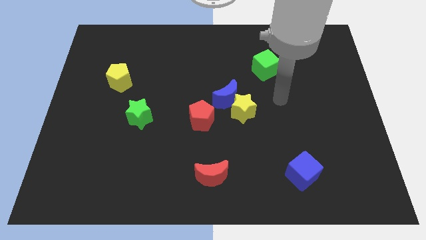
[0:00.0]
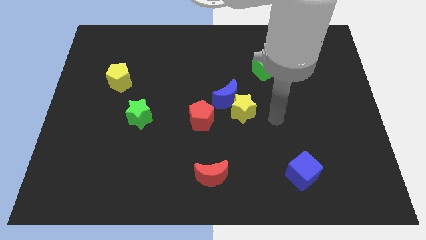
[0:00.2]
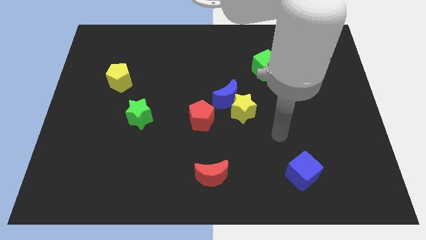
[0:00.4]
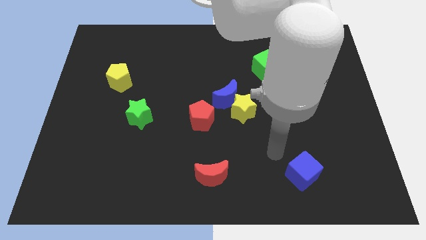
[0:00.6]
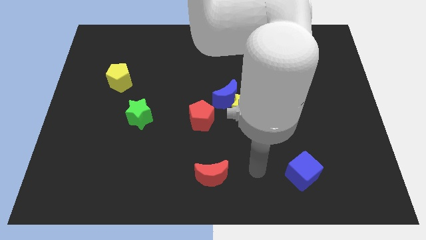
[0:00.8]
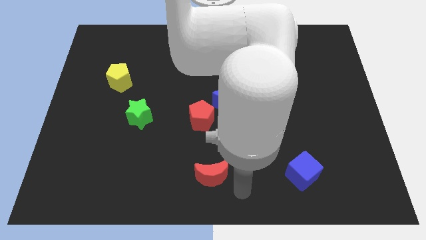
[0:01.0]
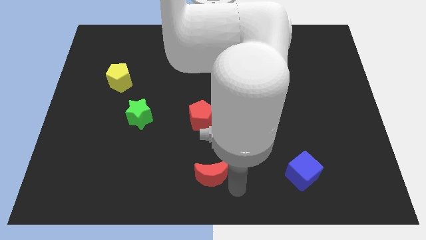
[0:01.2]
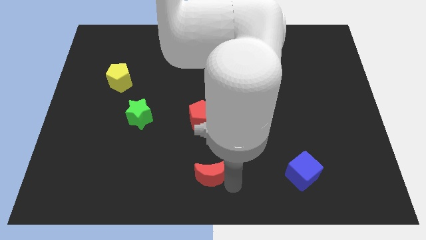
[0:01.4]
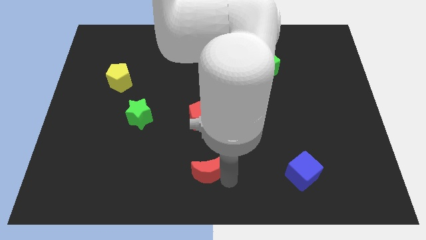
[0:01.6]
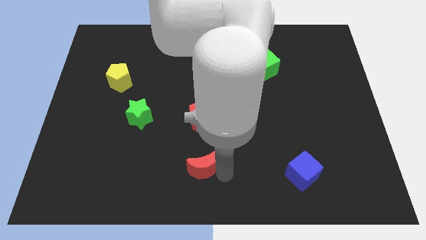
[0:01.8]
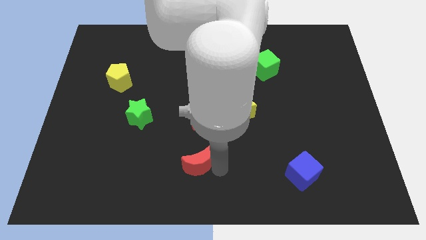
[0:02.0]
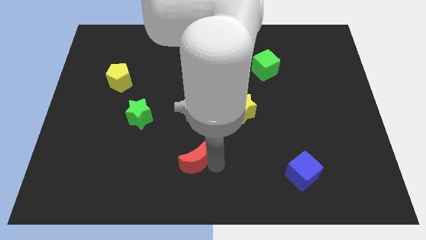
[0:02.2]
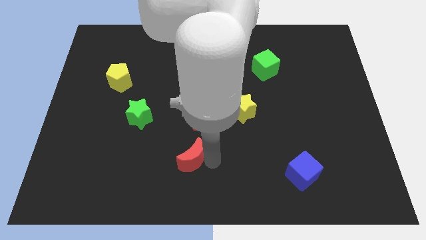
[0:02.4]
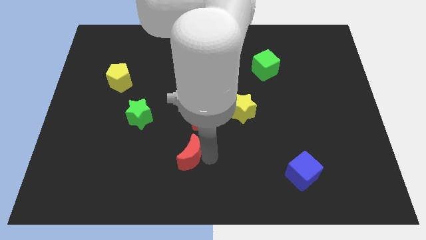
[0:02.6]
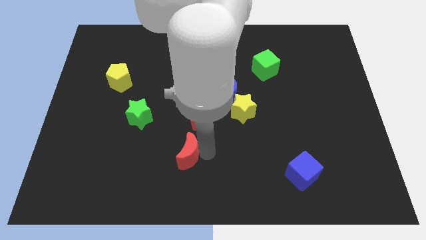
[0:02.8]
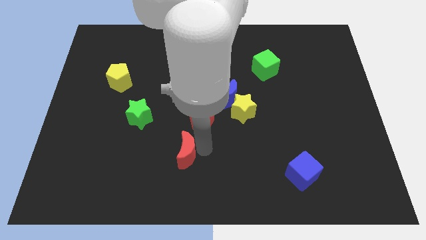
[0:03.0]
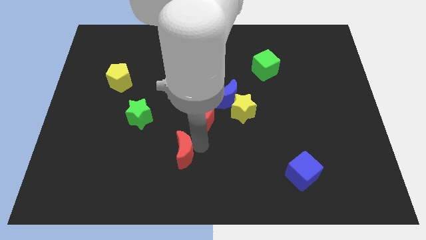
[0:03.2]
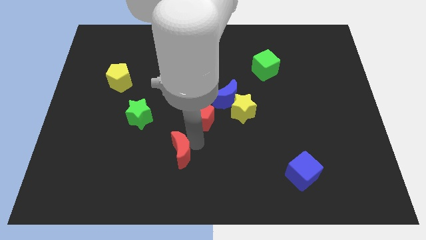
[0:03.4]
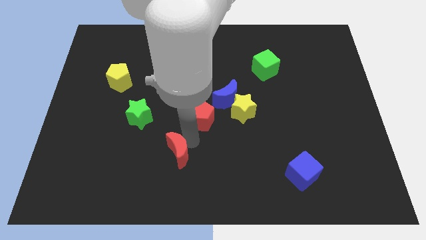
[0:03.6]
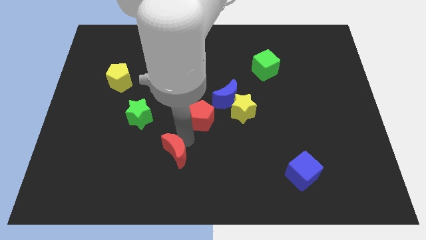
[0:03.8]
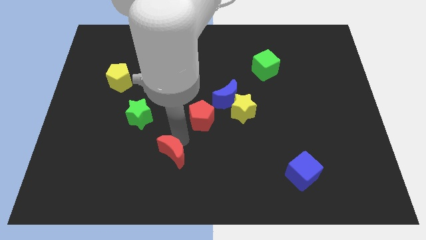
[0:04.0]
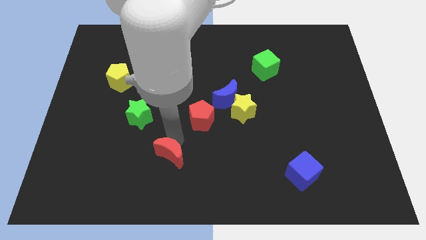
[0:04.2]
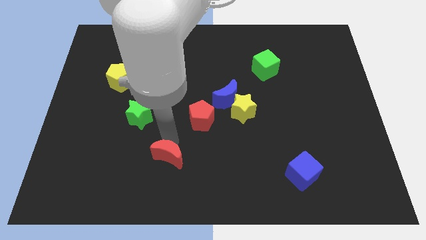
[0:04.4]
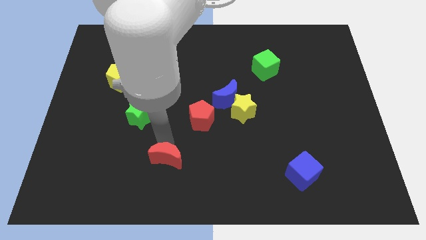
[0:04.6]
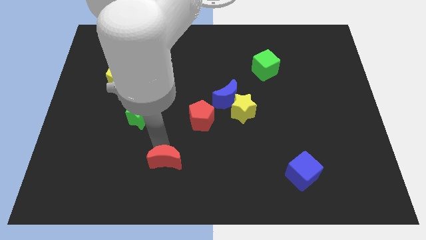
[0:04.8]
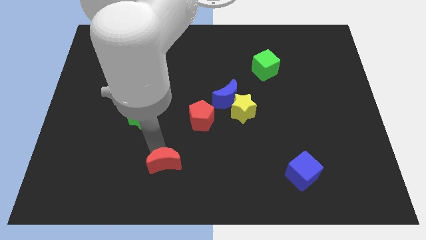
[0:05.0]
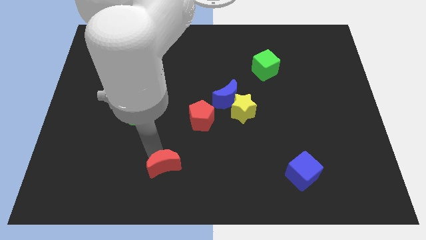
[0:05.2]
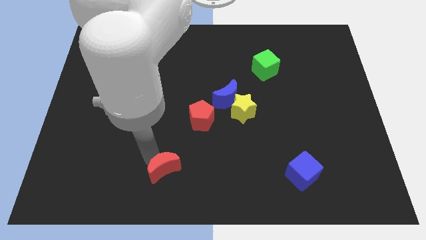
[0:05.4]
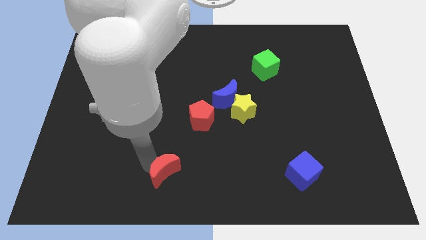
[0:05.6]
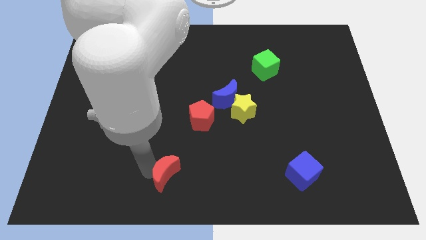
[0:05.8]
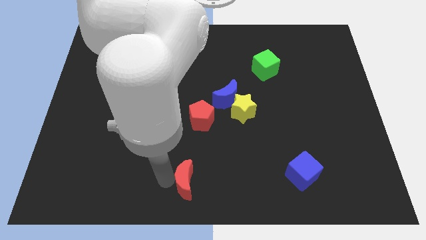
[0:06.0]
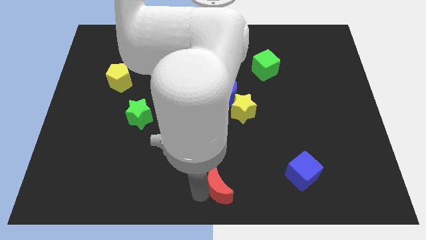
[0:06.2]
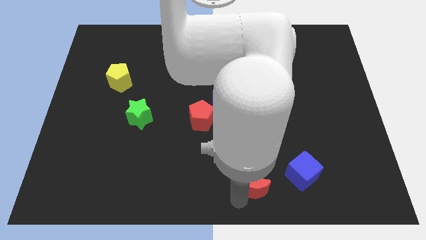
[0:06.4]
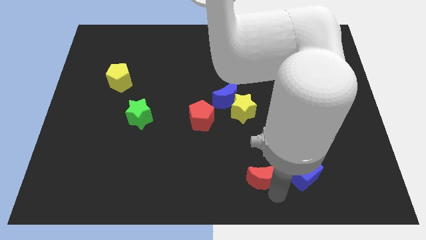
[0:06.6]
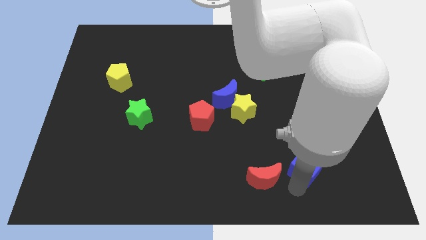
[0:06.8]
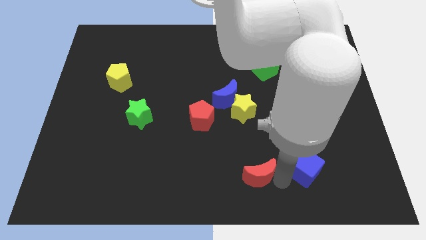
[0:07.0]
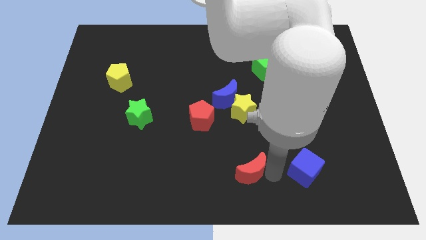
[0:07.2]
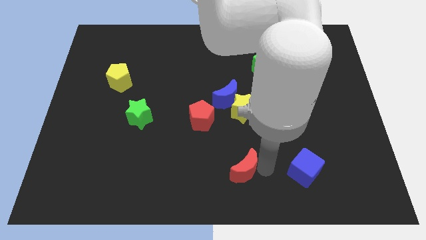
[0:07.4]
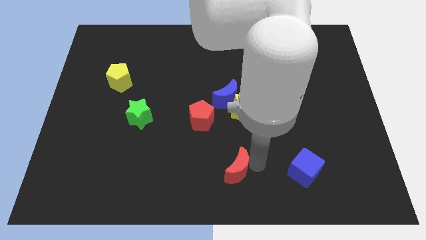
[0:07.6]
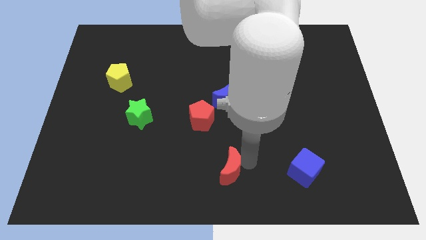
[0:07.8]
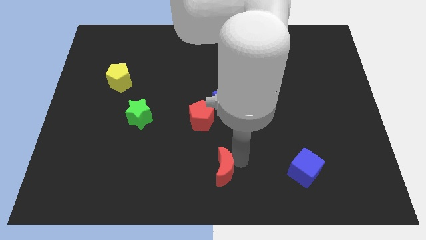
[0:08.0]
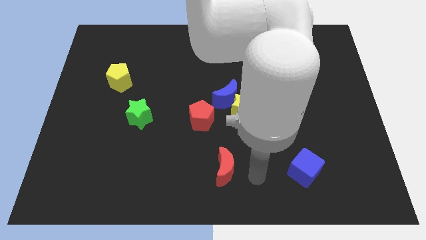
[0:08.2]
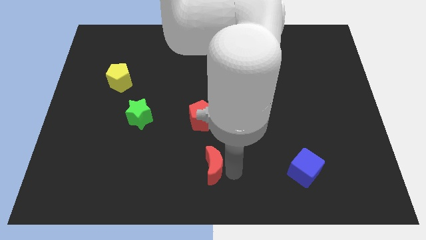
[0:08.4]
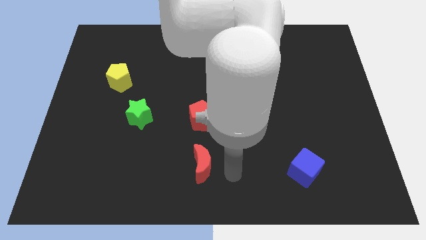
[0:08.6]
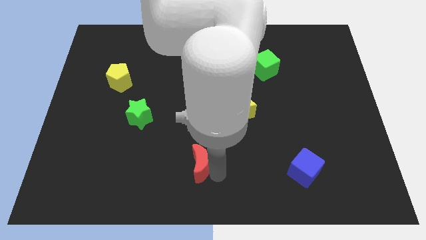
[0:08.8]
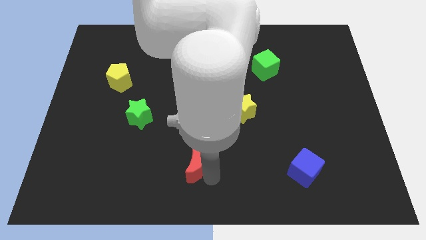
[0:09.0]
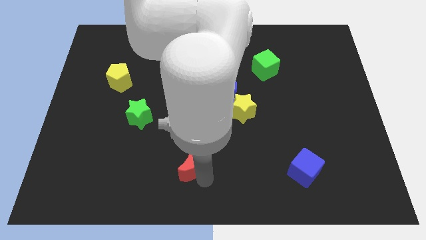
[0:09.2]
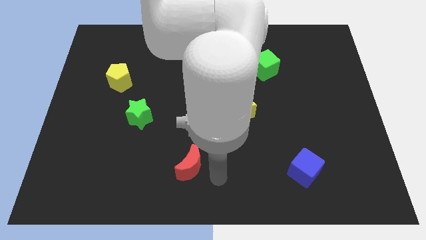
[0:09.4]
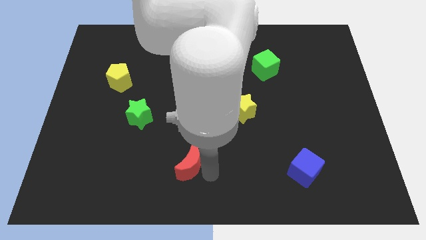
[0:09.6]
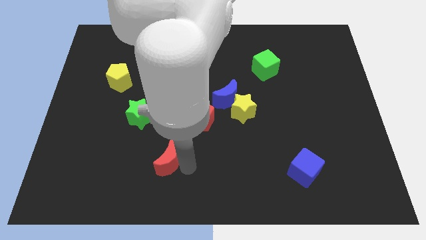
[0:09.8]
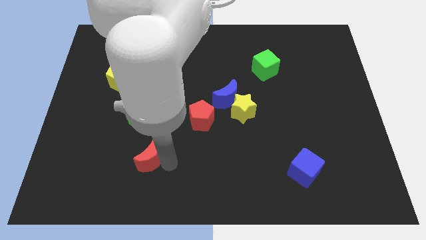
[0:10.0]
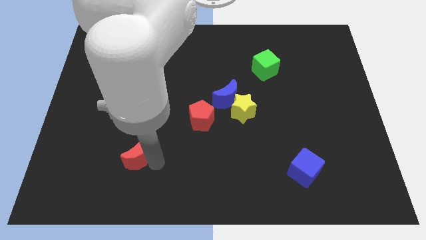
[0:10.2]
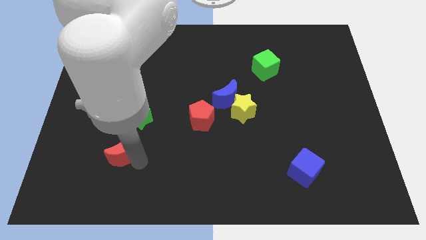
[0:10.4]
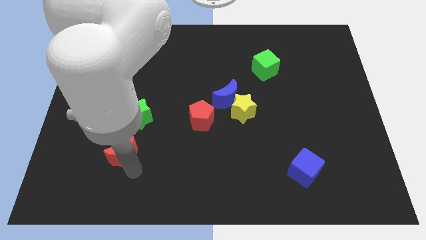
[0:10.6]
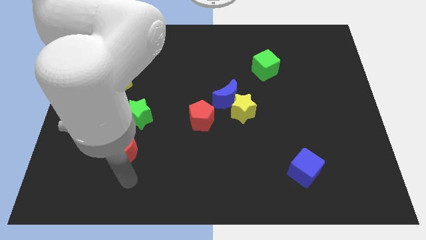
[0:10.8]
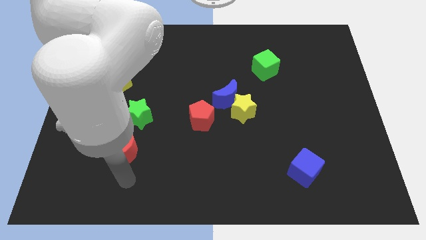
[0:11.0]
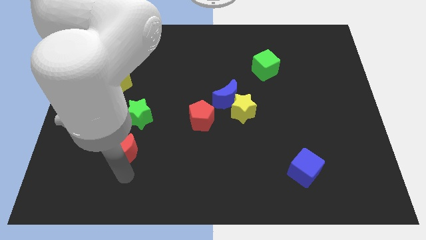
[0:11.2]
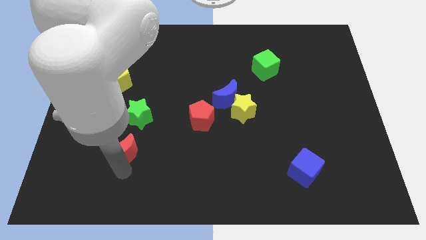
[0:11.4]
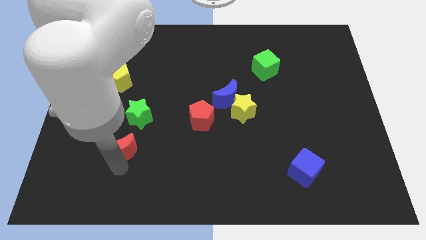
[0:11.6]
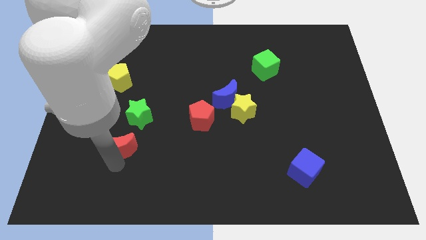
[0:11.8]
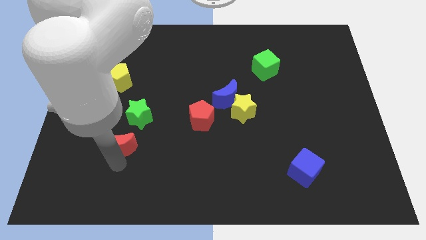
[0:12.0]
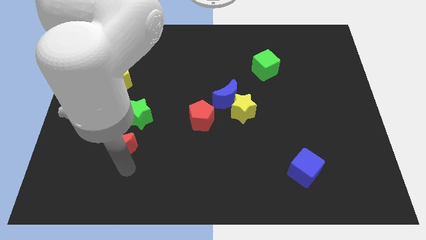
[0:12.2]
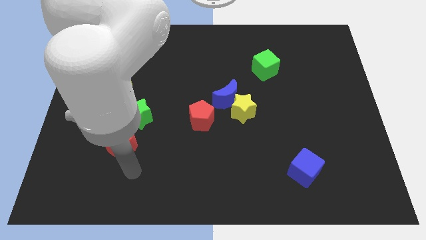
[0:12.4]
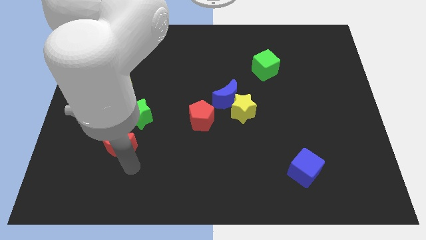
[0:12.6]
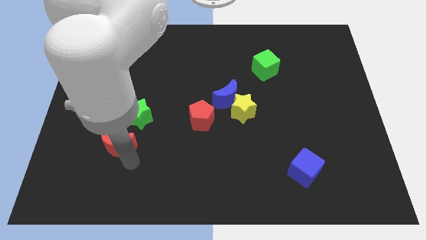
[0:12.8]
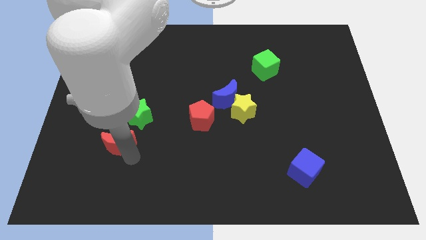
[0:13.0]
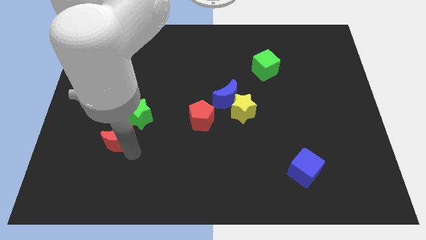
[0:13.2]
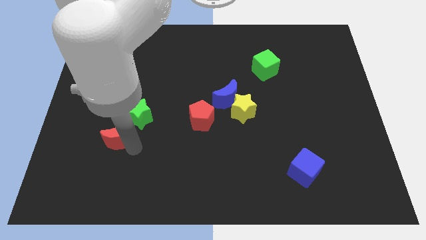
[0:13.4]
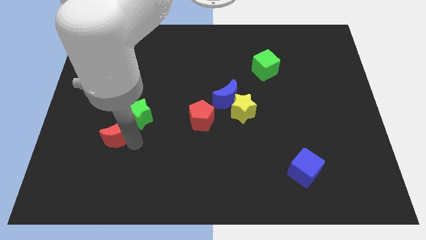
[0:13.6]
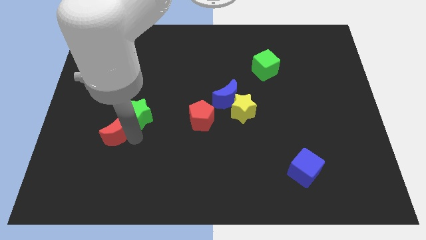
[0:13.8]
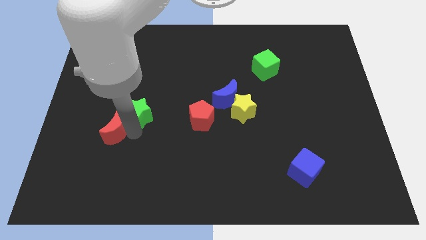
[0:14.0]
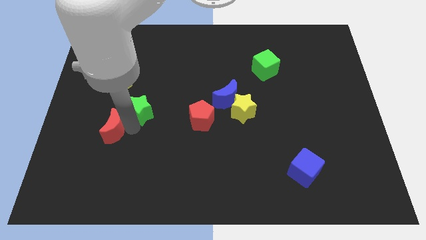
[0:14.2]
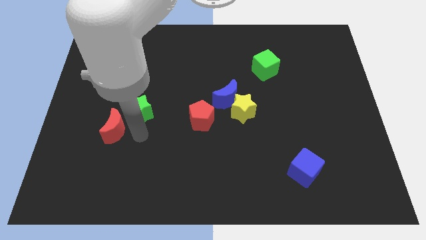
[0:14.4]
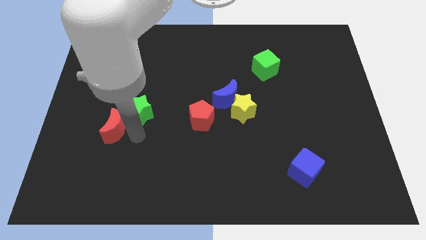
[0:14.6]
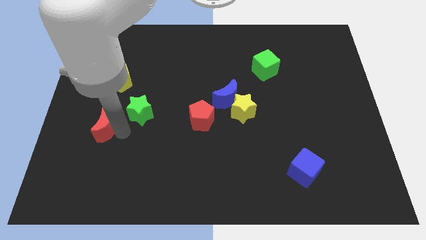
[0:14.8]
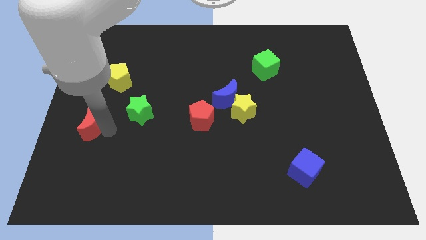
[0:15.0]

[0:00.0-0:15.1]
slide the red moon to the left side

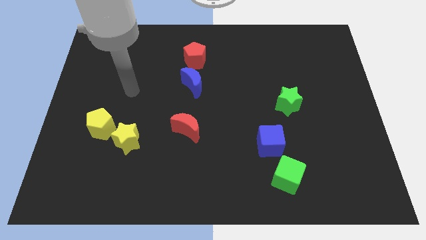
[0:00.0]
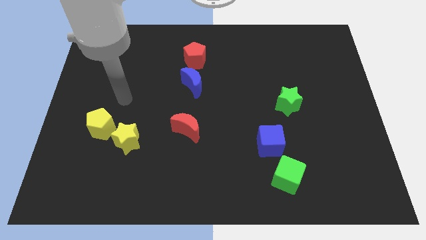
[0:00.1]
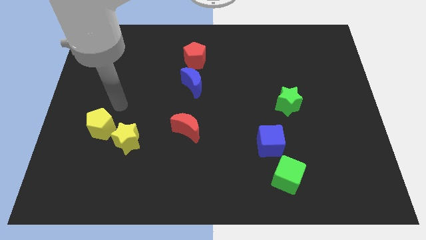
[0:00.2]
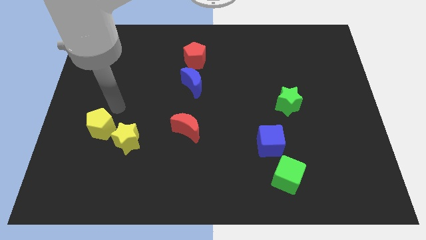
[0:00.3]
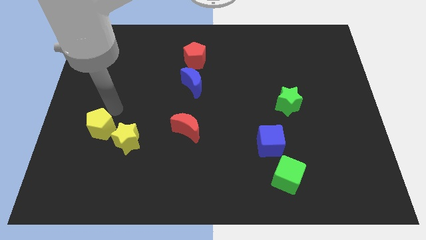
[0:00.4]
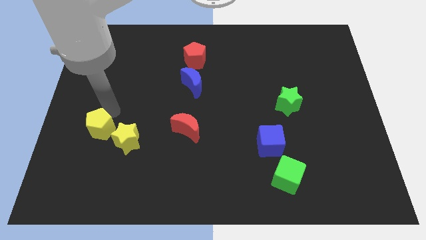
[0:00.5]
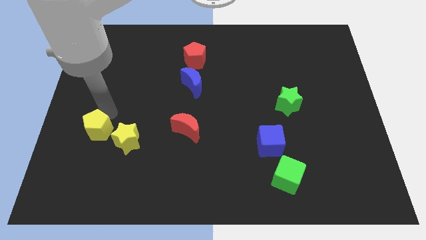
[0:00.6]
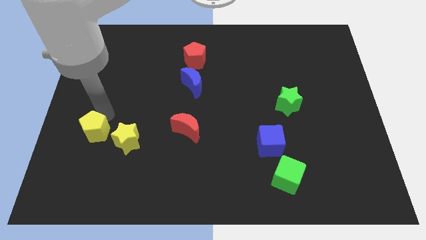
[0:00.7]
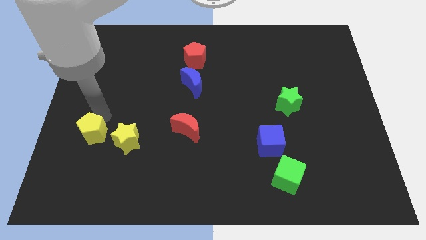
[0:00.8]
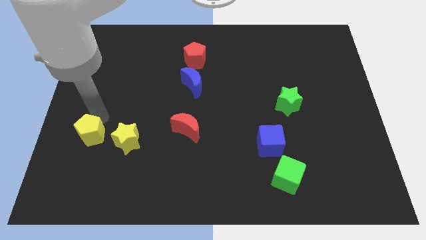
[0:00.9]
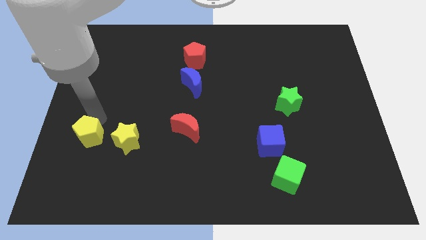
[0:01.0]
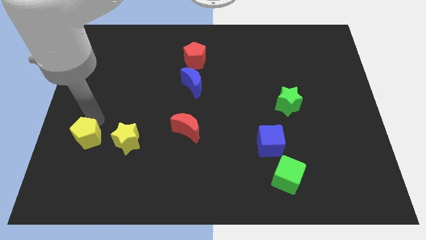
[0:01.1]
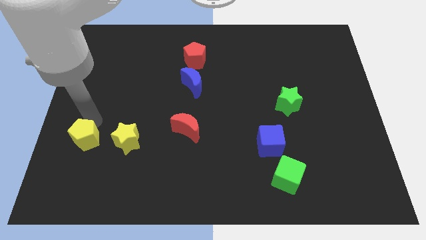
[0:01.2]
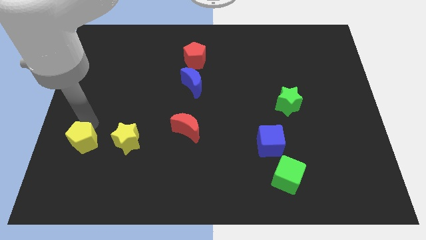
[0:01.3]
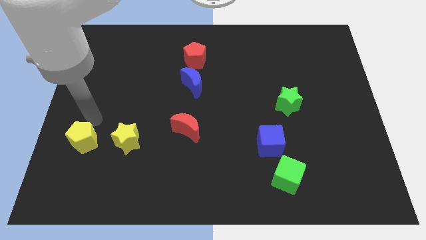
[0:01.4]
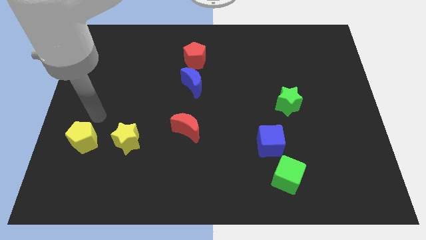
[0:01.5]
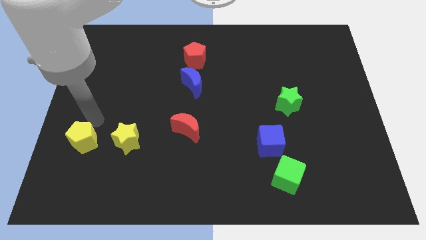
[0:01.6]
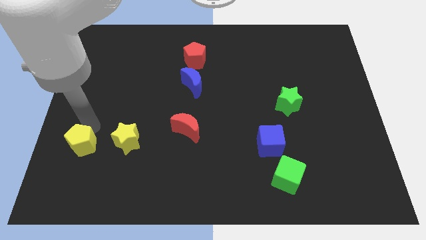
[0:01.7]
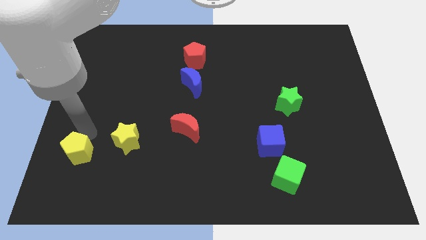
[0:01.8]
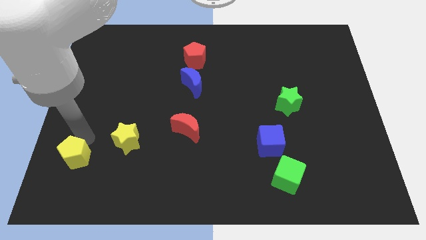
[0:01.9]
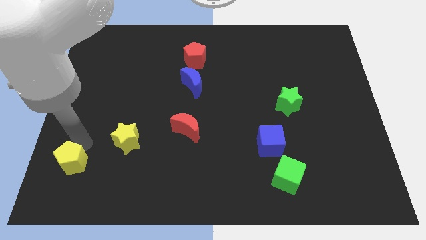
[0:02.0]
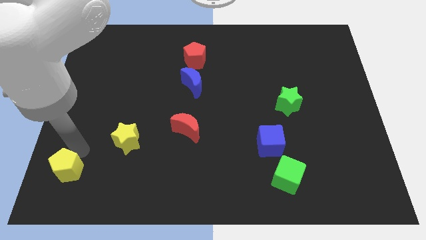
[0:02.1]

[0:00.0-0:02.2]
move the yellow pentagon to the bottom left corner
